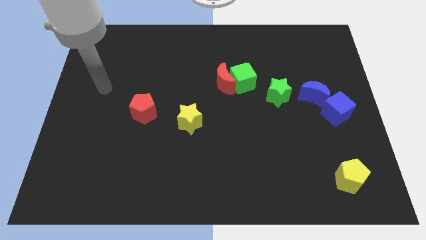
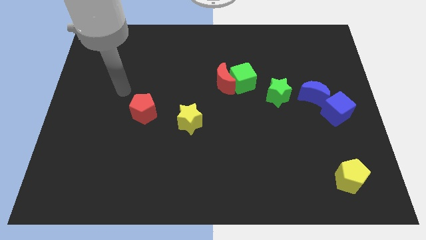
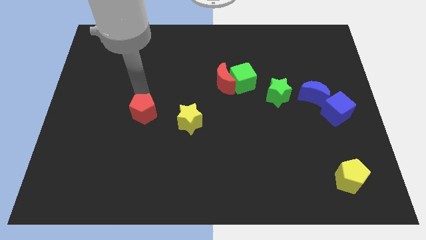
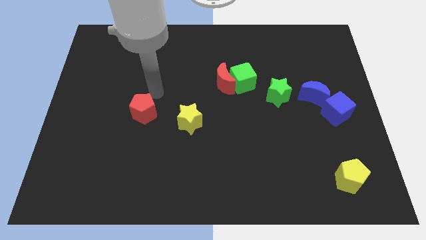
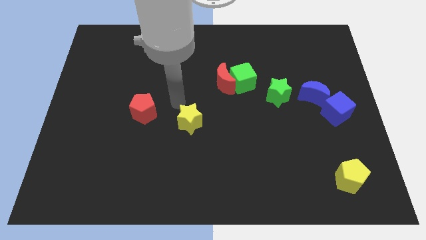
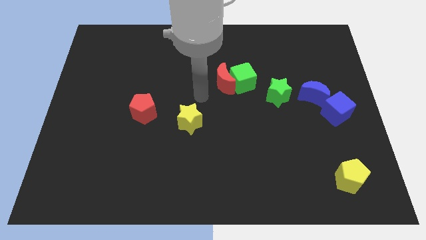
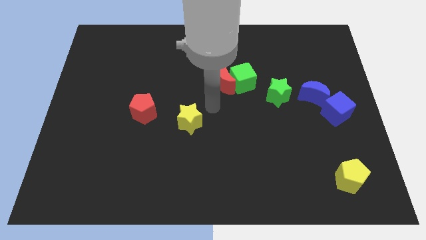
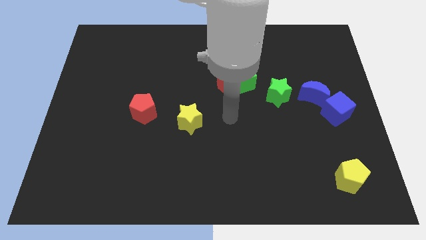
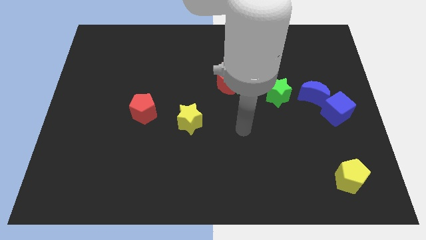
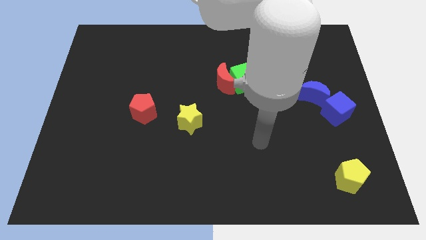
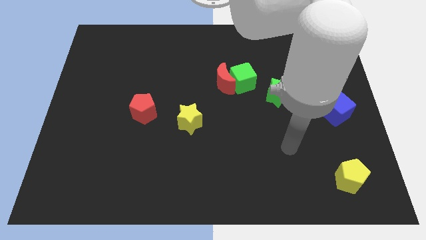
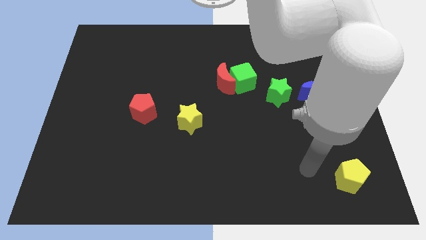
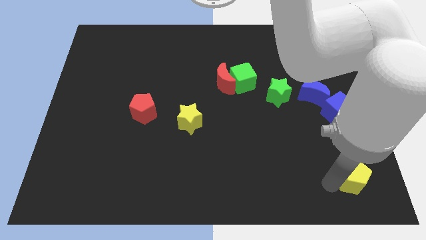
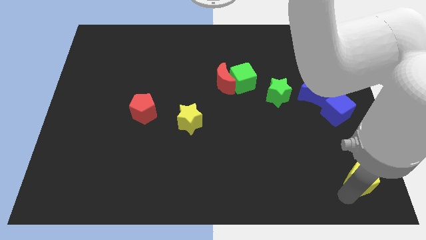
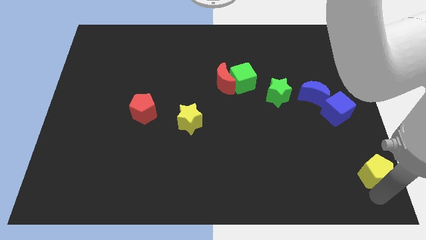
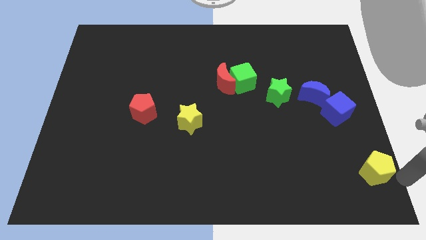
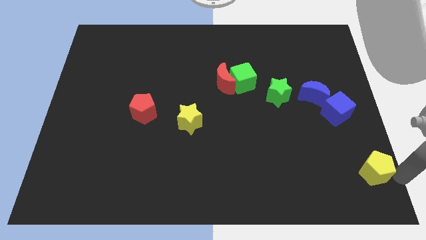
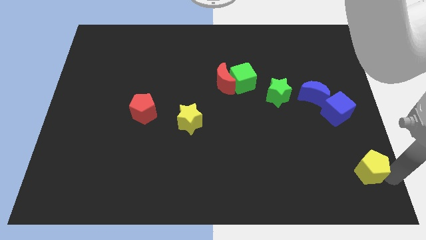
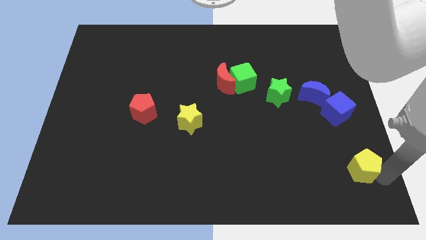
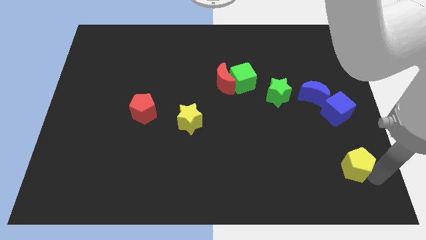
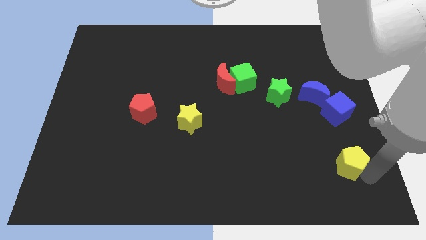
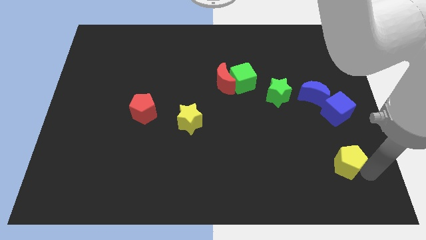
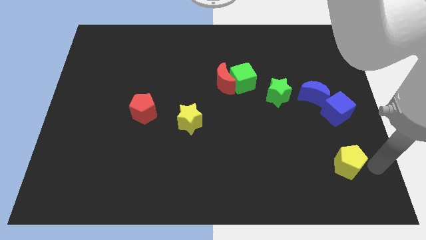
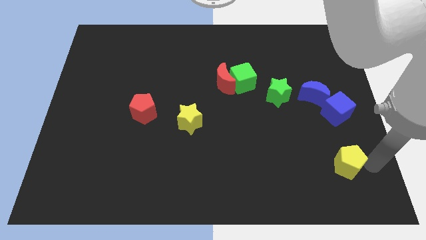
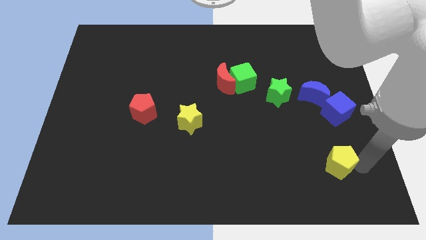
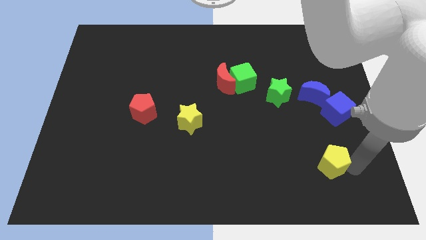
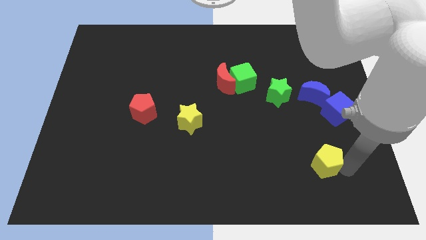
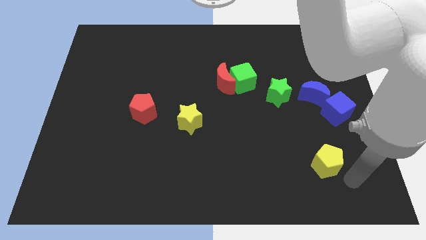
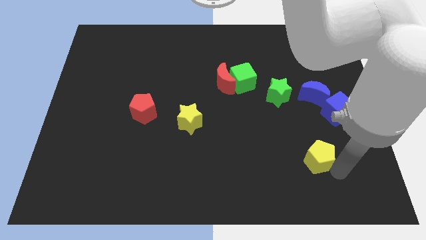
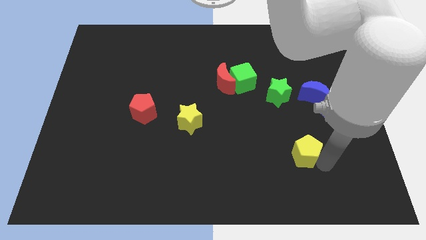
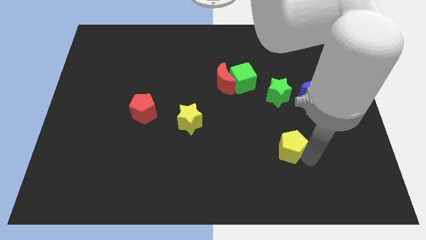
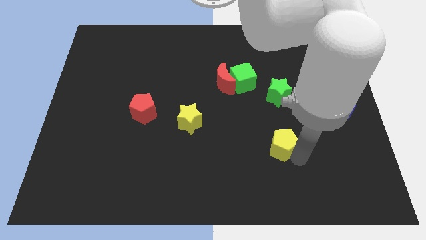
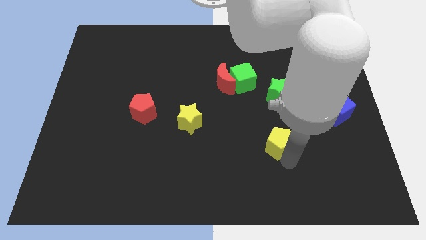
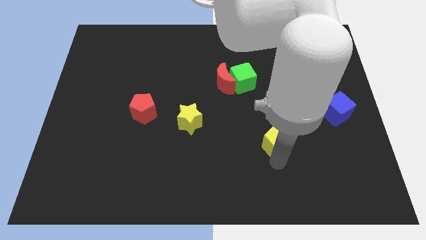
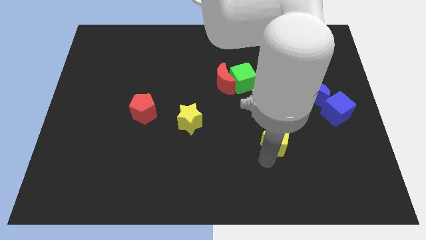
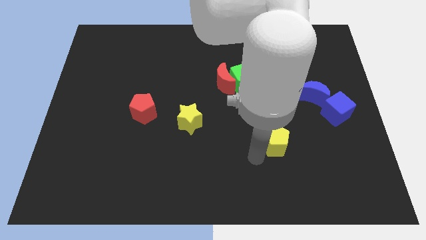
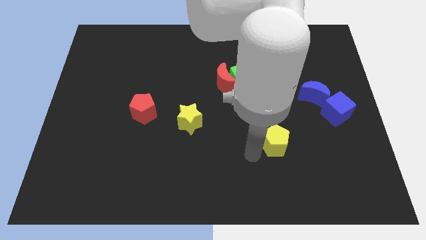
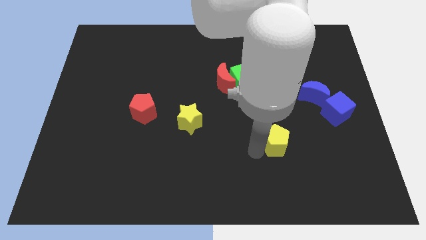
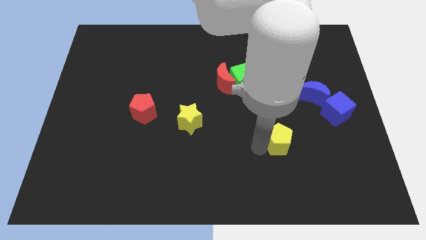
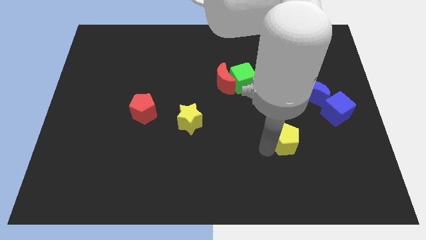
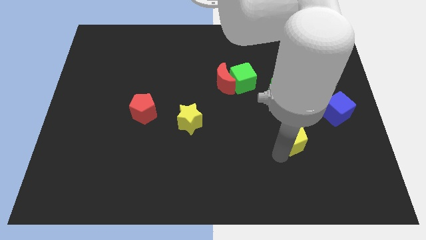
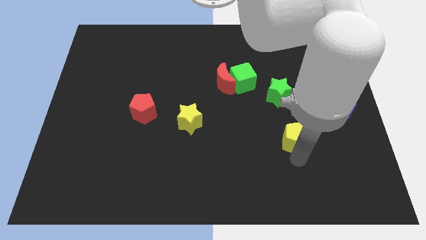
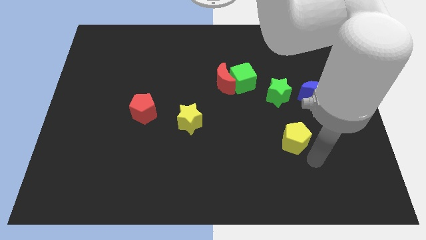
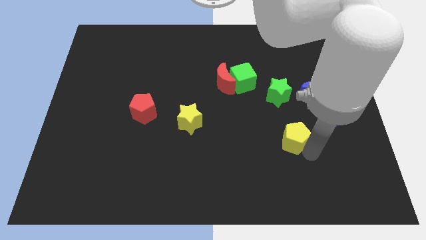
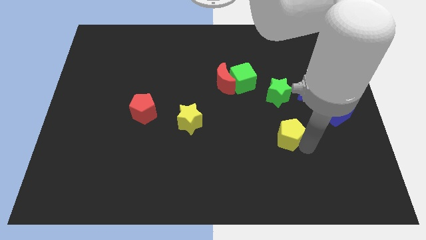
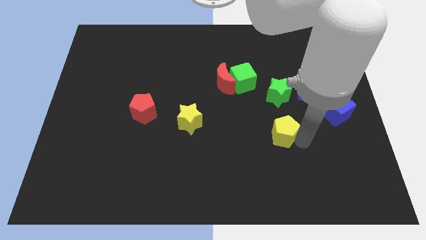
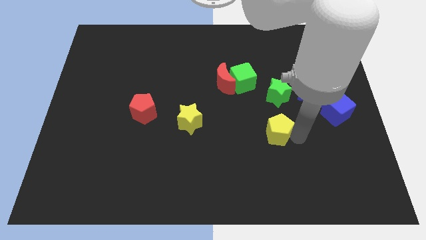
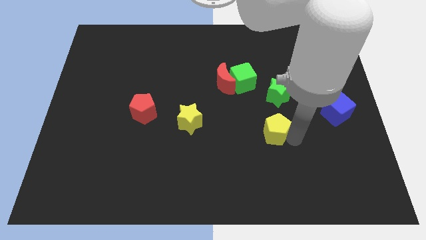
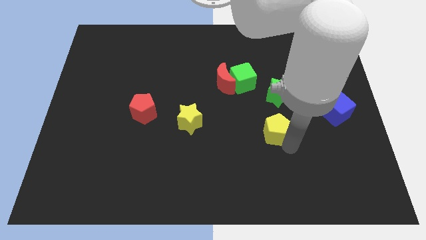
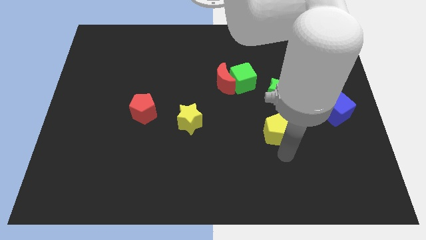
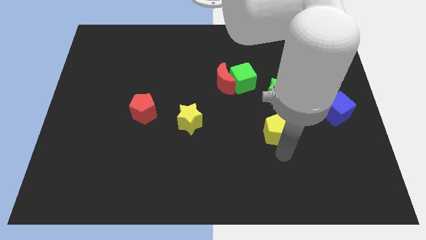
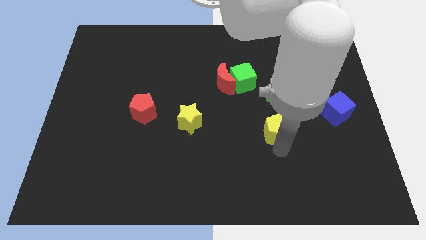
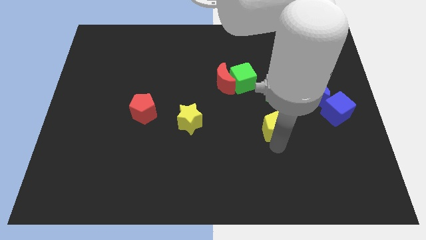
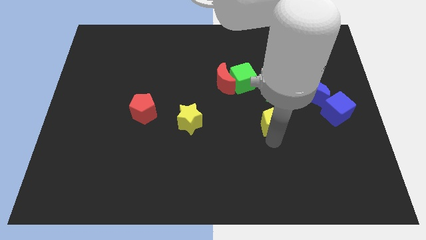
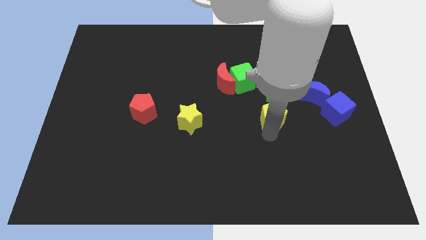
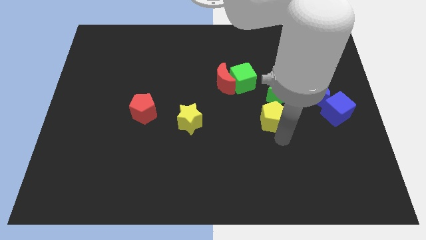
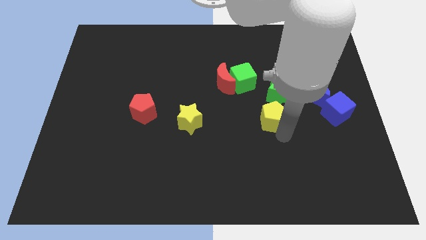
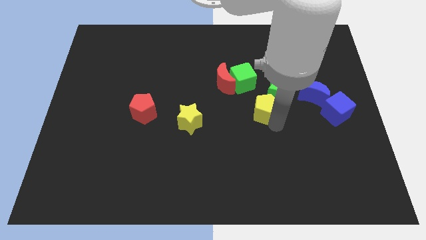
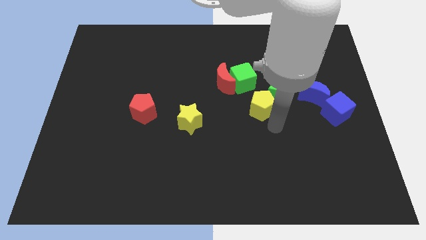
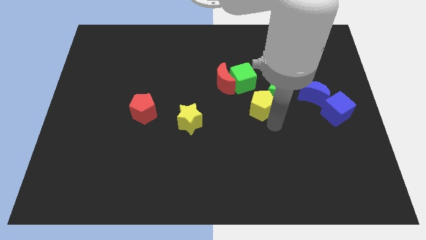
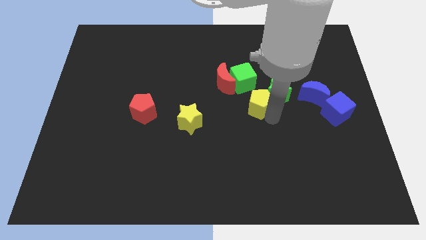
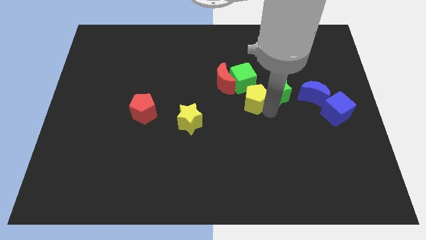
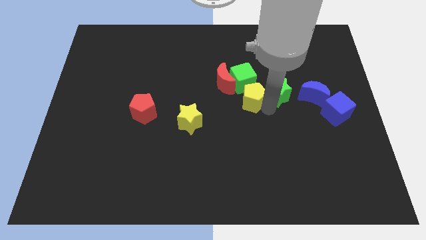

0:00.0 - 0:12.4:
put the yellow pentagon close to the green cube

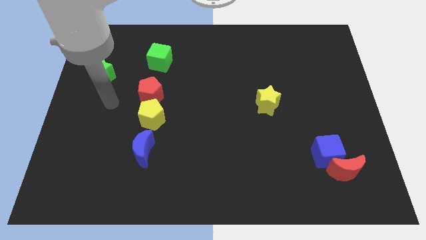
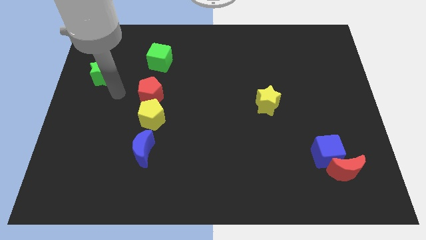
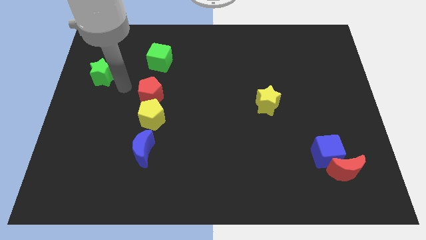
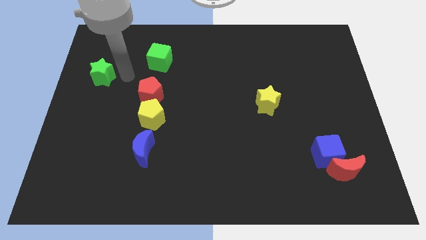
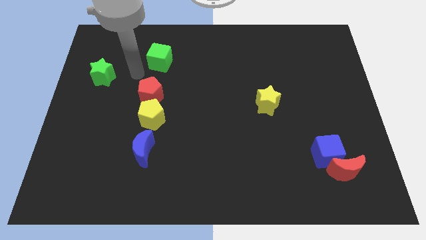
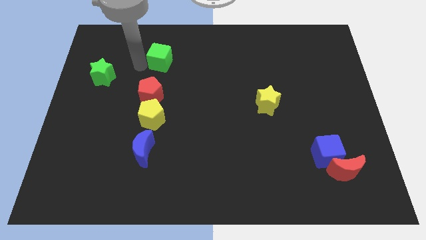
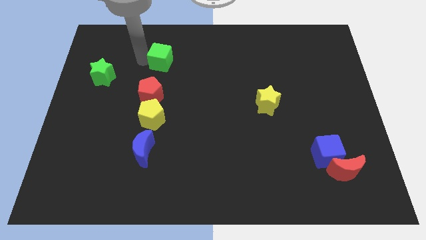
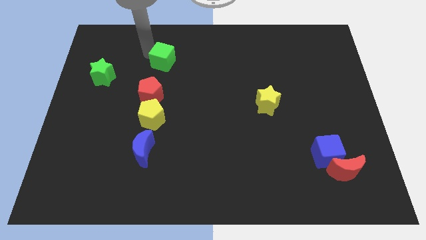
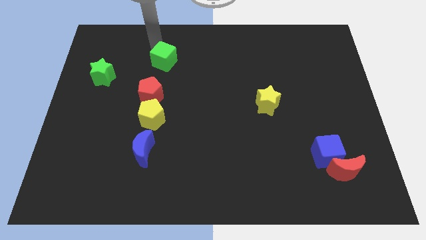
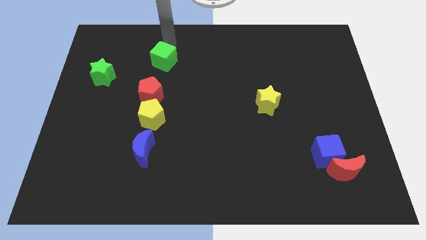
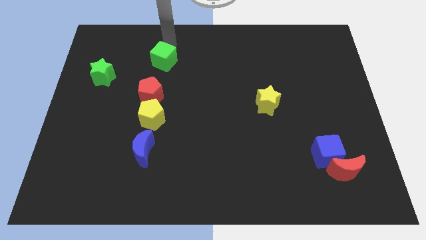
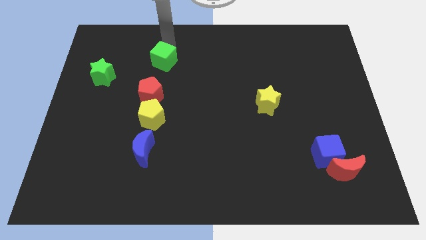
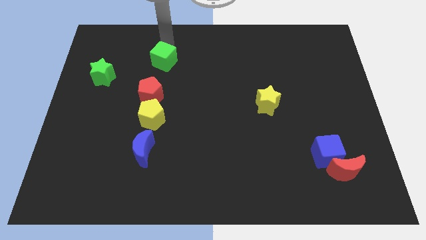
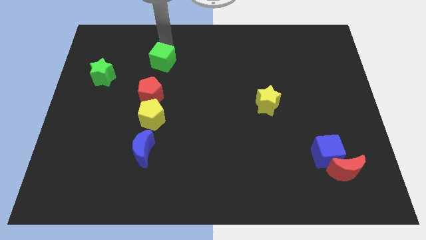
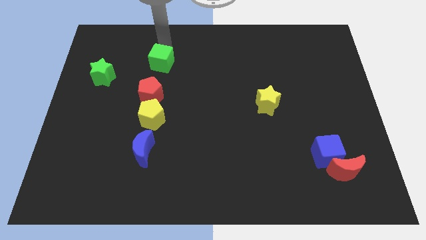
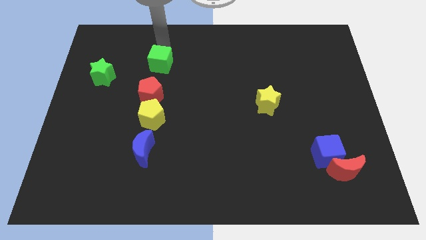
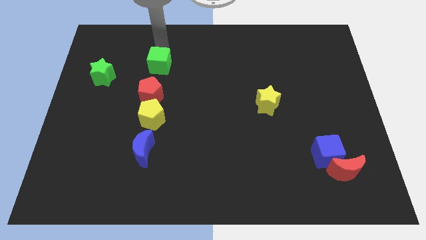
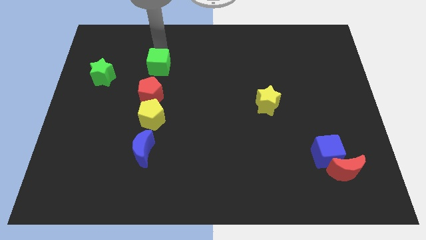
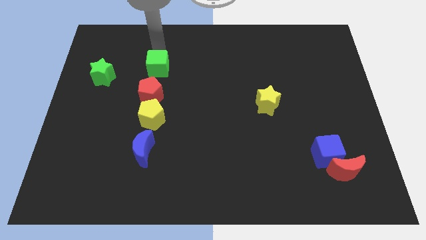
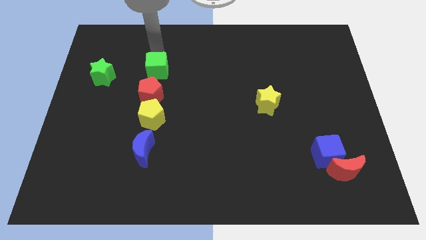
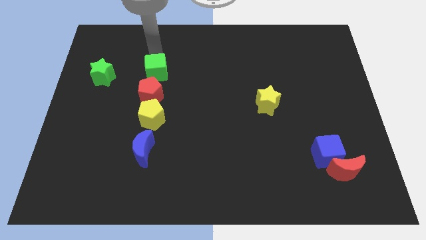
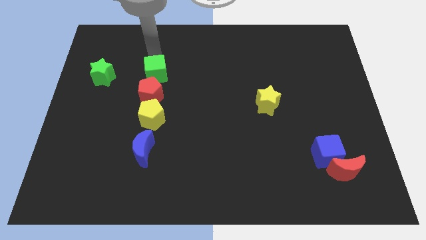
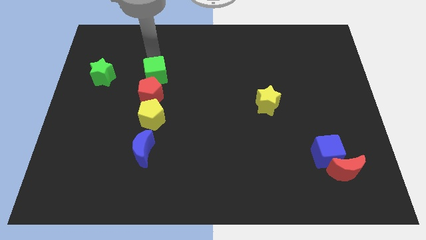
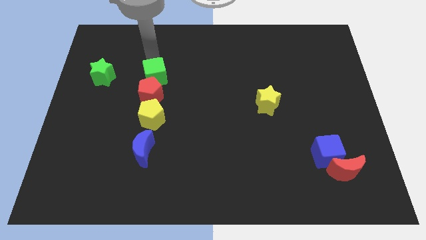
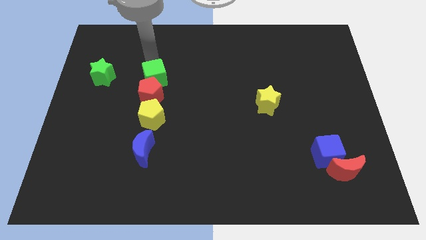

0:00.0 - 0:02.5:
push the green cube towards the red pentagon
